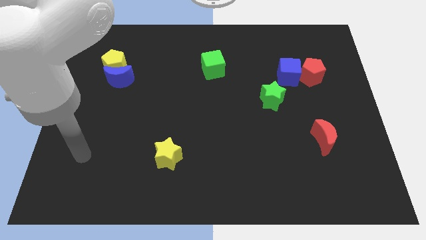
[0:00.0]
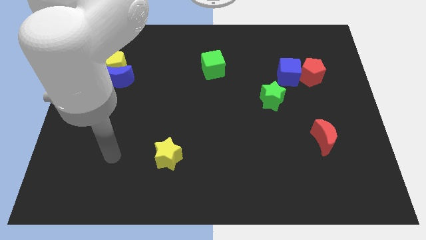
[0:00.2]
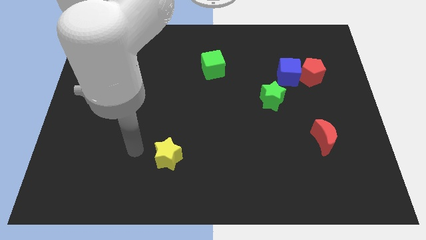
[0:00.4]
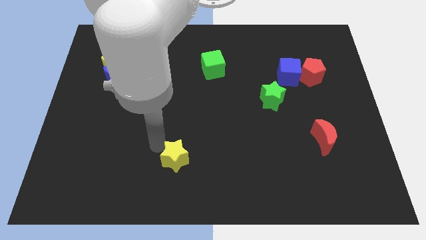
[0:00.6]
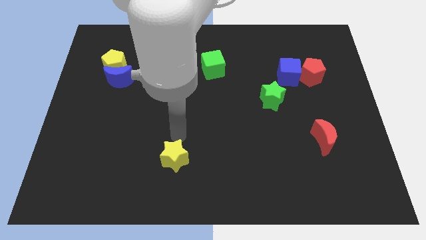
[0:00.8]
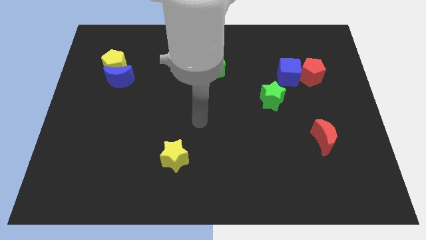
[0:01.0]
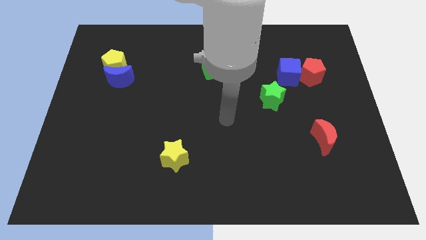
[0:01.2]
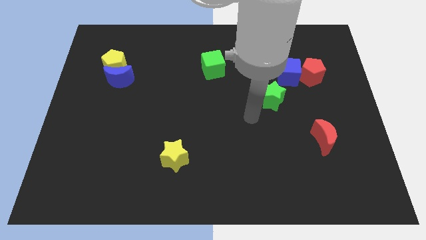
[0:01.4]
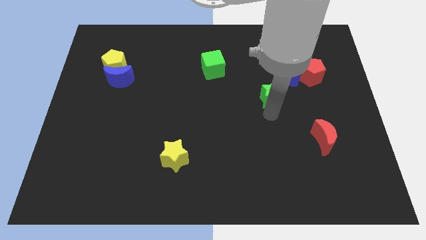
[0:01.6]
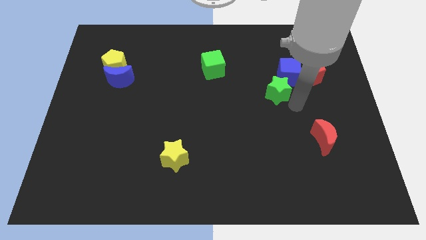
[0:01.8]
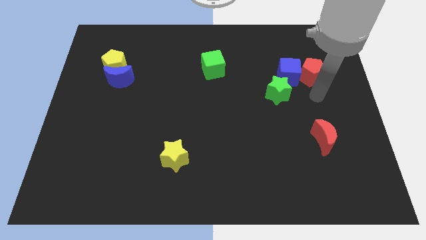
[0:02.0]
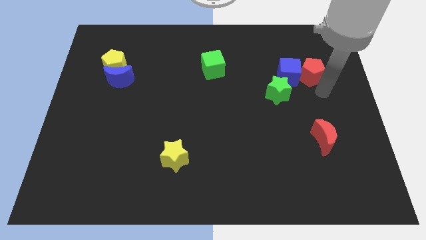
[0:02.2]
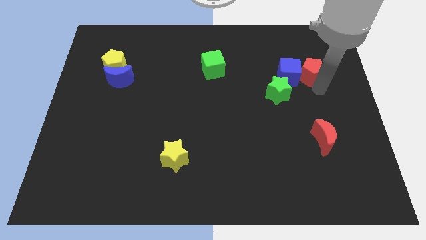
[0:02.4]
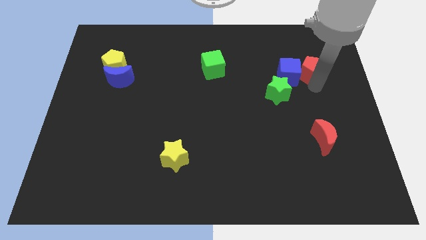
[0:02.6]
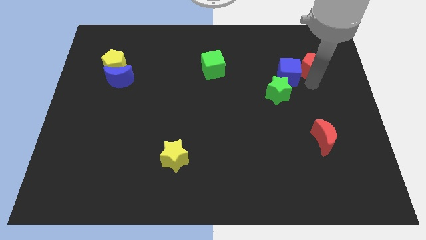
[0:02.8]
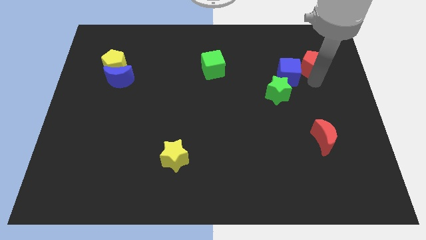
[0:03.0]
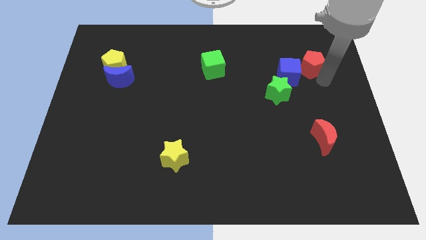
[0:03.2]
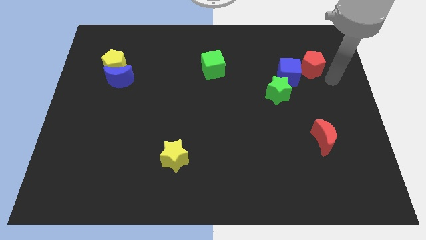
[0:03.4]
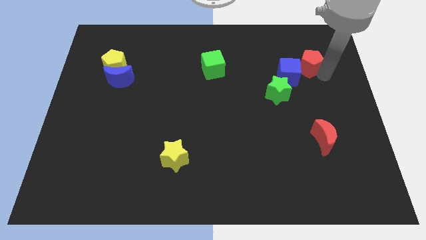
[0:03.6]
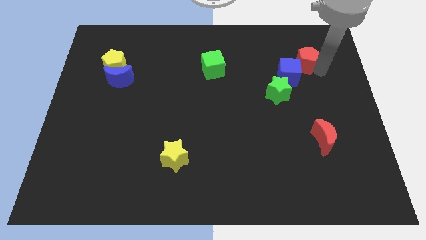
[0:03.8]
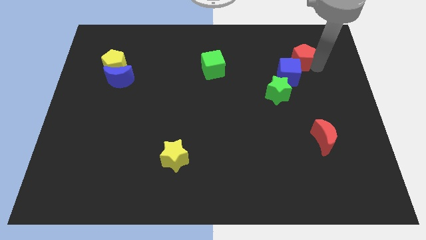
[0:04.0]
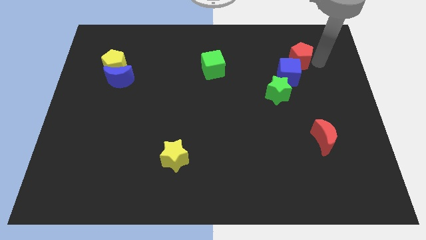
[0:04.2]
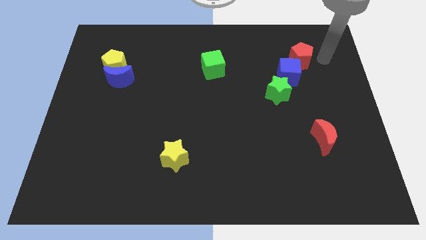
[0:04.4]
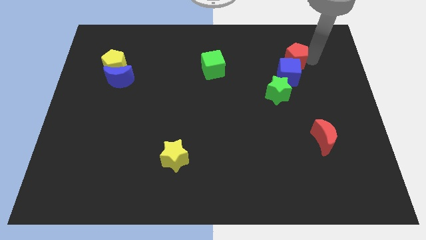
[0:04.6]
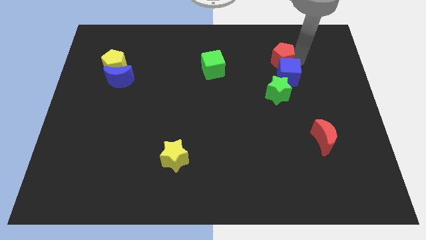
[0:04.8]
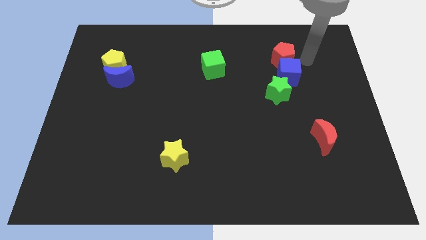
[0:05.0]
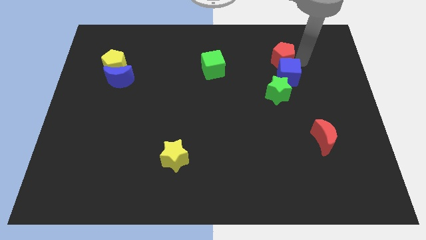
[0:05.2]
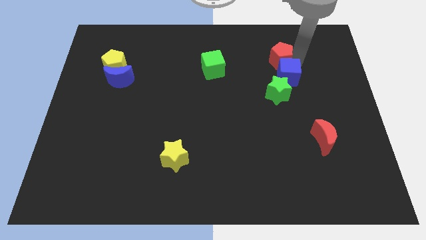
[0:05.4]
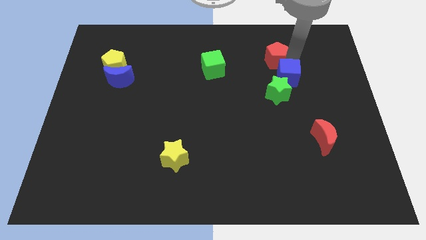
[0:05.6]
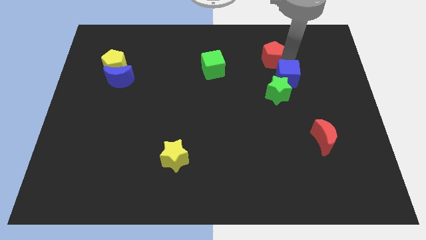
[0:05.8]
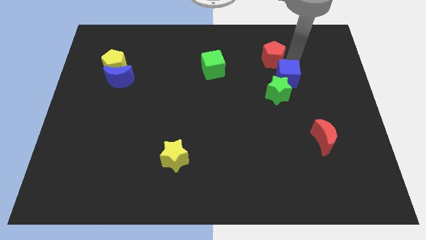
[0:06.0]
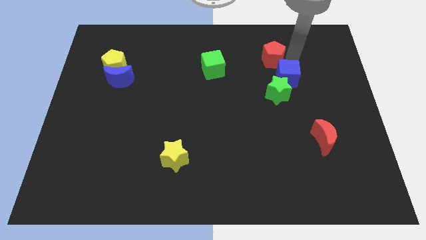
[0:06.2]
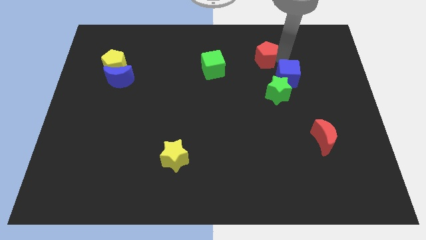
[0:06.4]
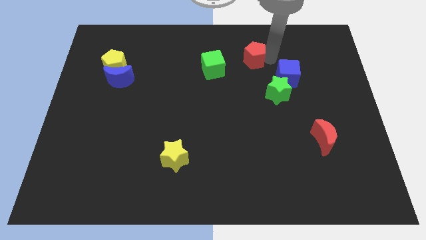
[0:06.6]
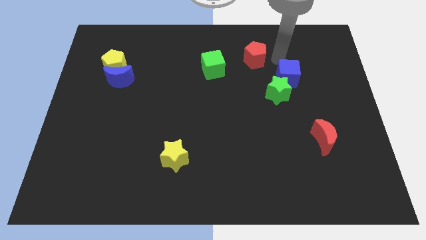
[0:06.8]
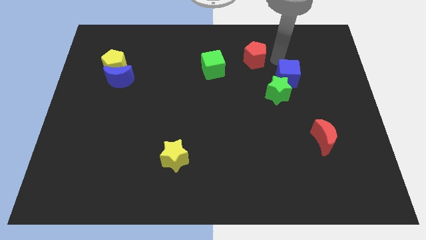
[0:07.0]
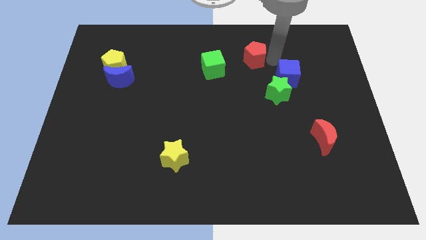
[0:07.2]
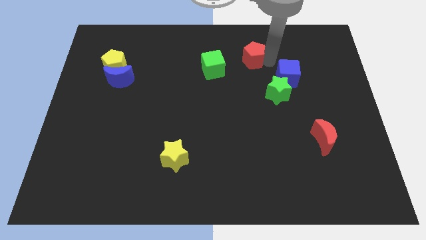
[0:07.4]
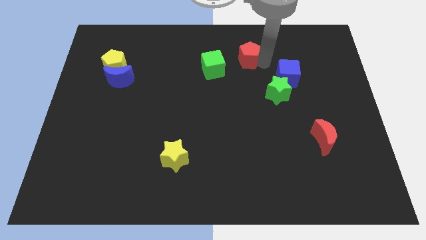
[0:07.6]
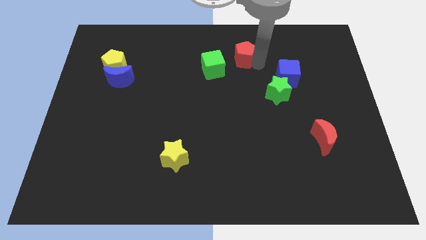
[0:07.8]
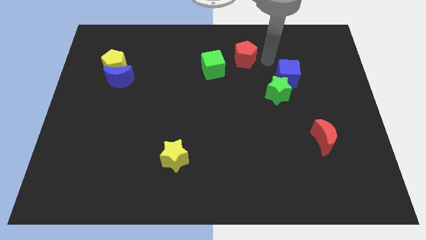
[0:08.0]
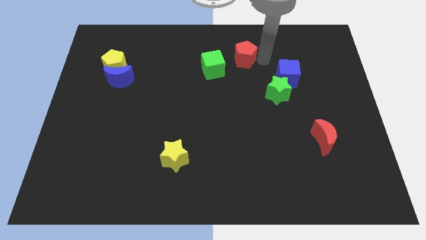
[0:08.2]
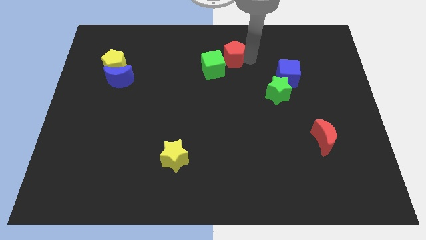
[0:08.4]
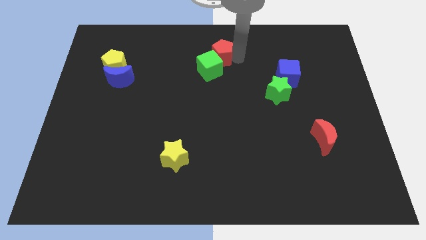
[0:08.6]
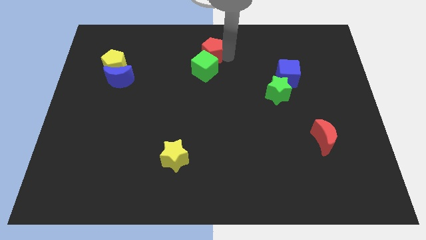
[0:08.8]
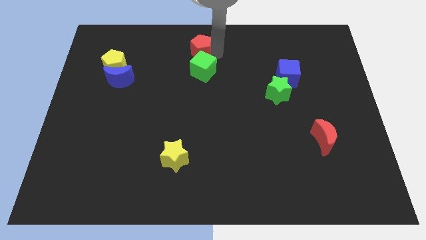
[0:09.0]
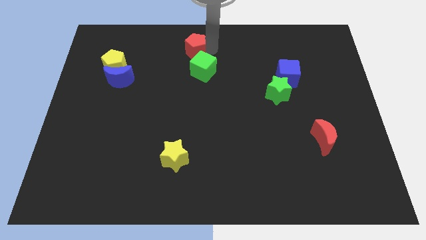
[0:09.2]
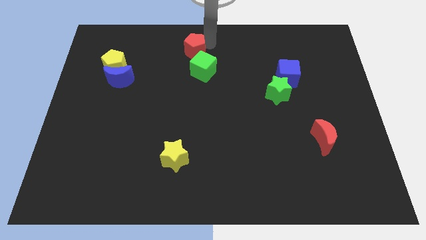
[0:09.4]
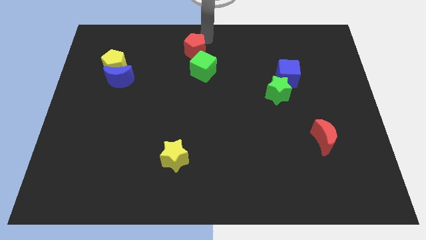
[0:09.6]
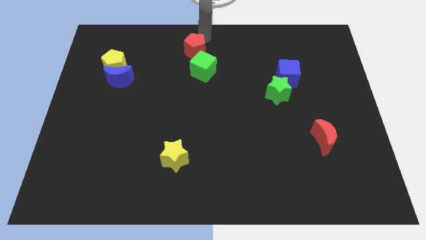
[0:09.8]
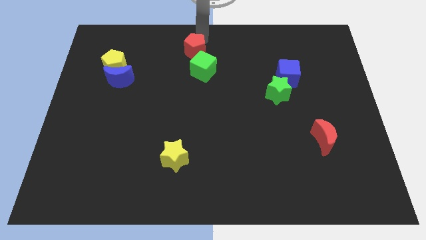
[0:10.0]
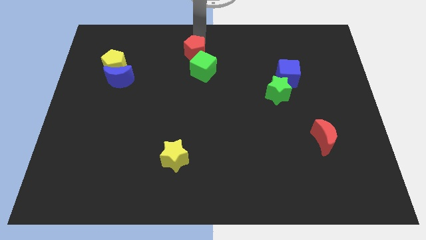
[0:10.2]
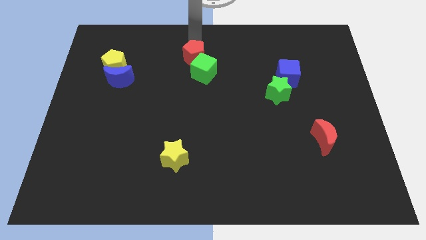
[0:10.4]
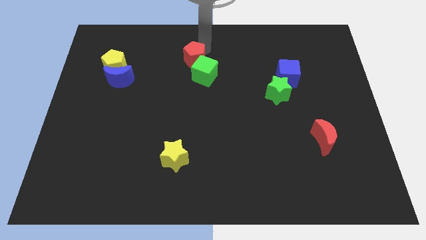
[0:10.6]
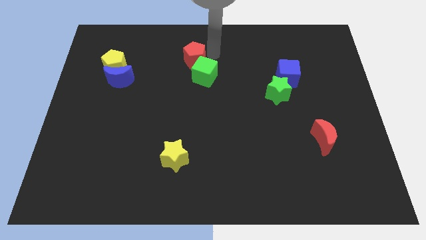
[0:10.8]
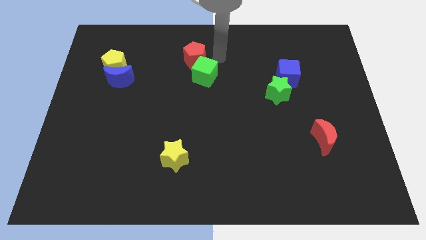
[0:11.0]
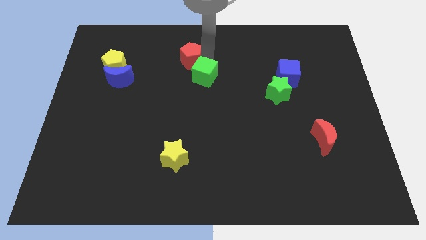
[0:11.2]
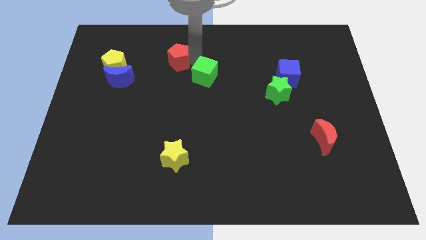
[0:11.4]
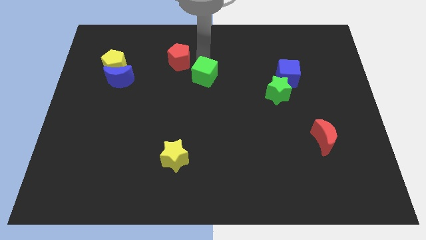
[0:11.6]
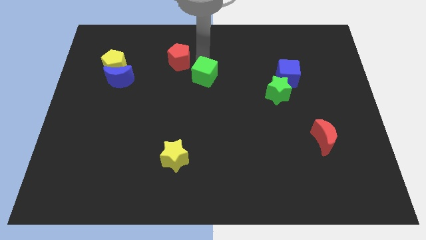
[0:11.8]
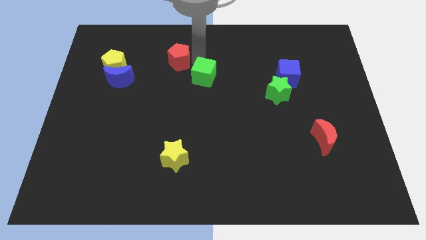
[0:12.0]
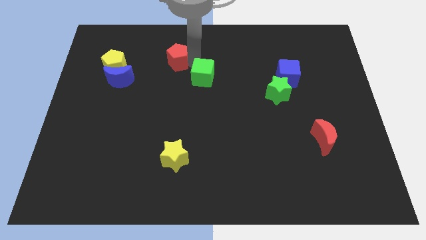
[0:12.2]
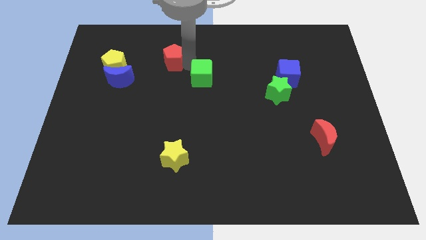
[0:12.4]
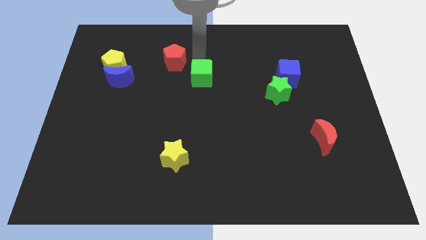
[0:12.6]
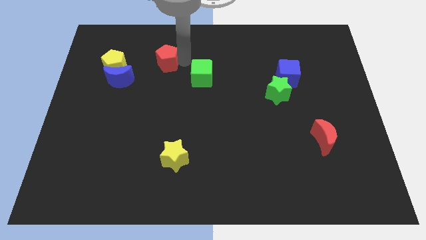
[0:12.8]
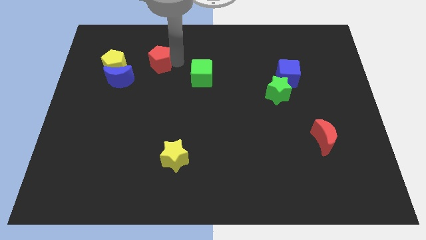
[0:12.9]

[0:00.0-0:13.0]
move the red pentagon to the top right side of the blue moon

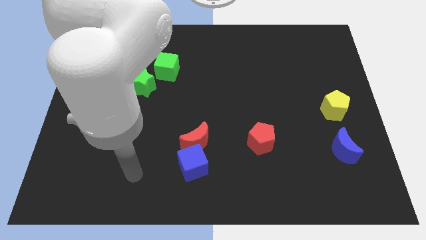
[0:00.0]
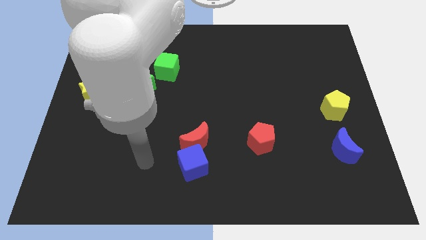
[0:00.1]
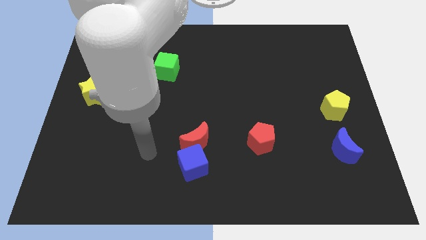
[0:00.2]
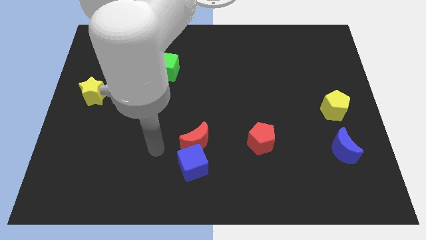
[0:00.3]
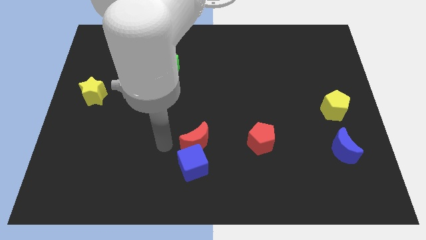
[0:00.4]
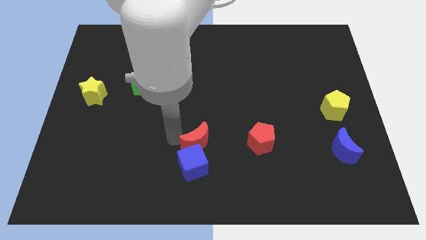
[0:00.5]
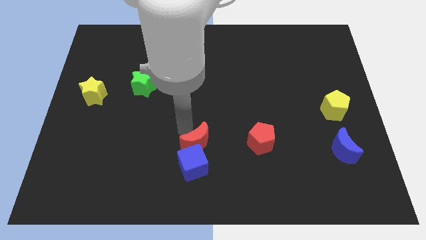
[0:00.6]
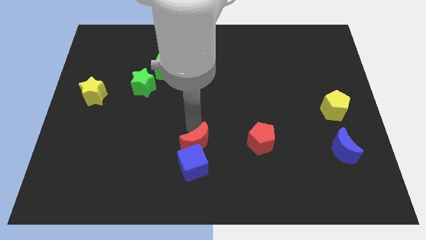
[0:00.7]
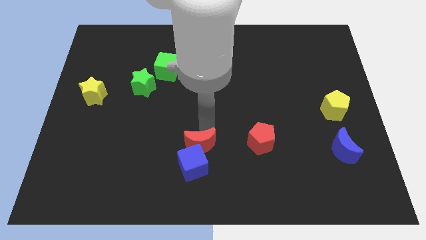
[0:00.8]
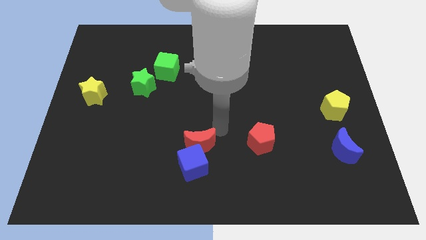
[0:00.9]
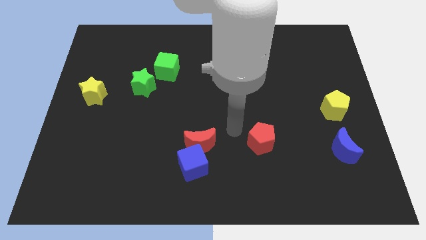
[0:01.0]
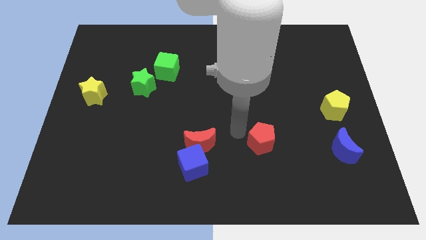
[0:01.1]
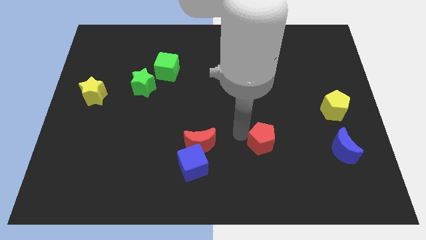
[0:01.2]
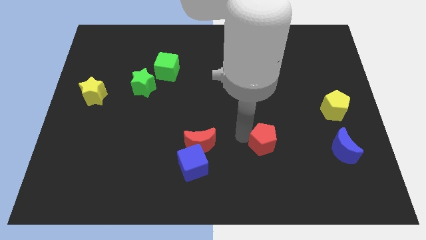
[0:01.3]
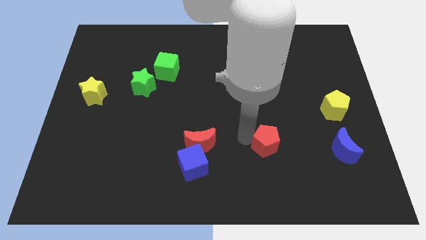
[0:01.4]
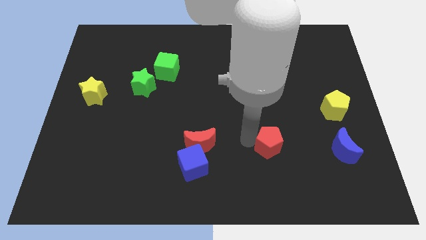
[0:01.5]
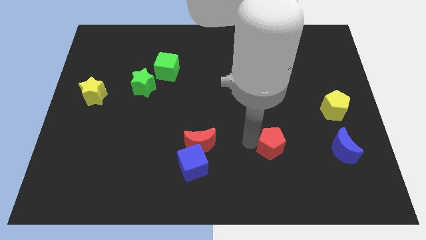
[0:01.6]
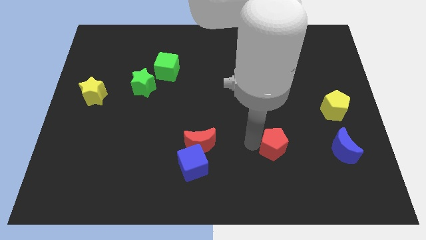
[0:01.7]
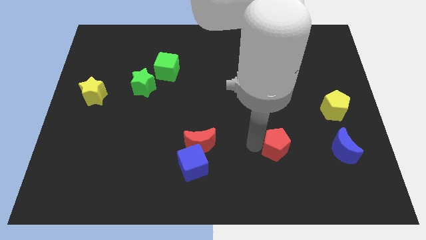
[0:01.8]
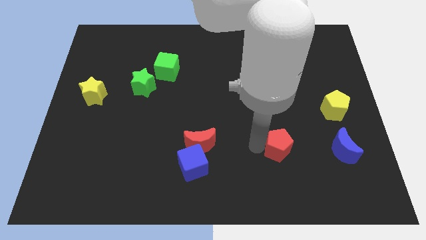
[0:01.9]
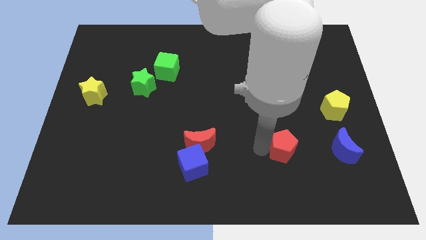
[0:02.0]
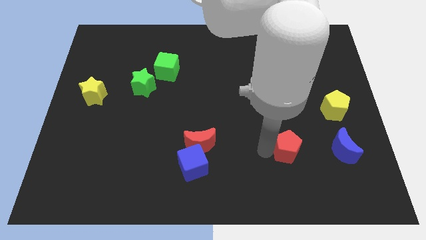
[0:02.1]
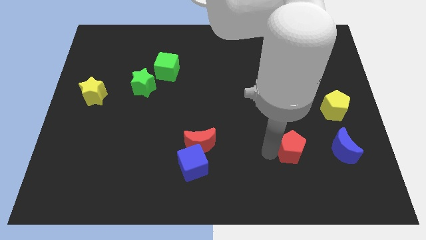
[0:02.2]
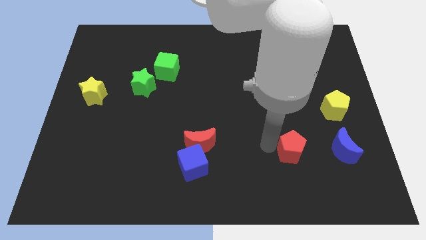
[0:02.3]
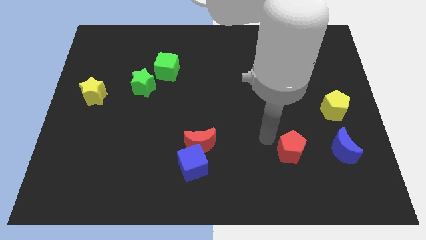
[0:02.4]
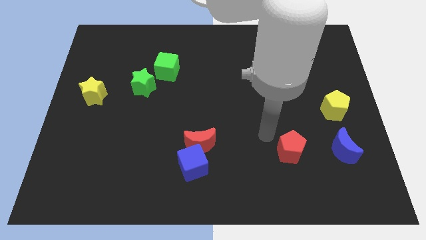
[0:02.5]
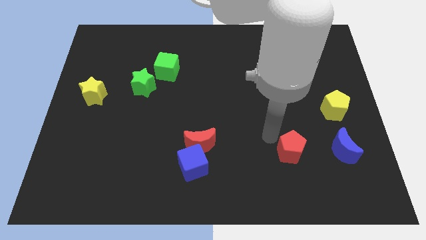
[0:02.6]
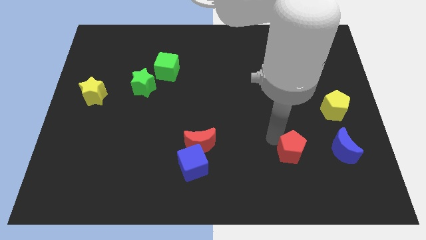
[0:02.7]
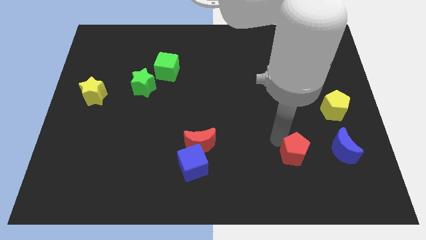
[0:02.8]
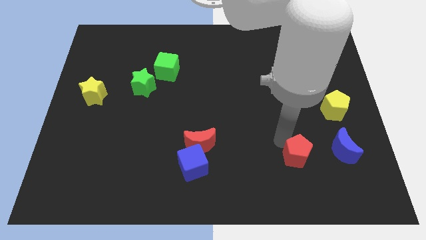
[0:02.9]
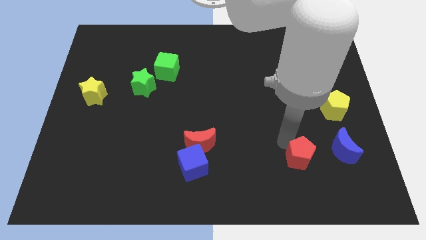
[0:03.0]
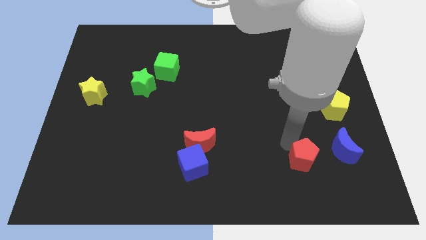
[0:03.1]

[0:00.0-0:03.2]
push the red pentagon to the bottom left side of the blue moon
